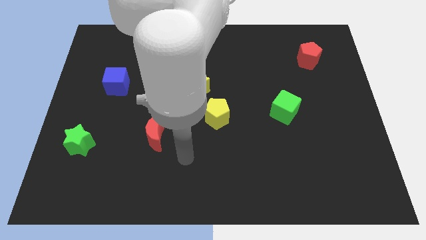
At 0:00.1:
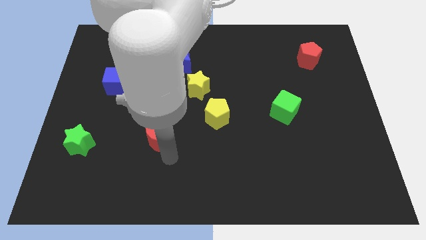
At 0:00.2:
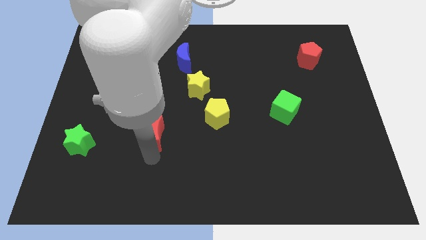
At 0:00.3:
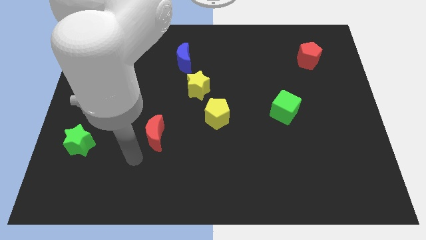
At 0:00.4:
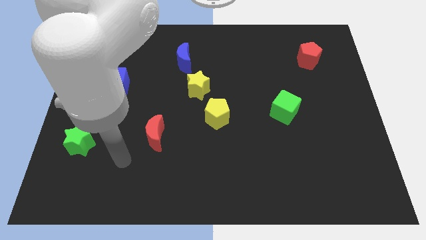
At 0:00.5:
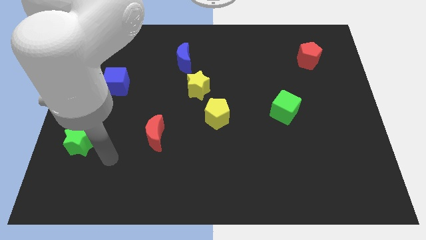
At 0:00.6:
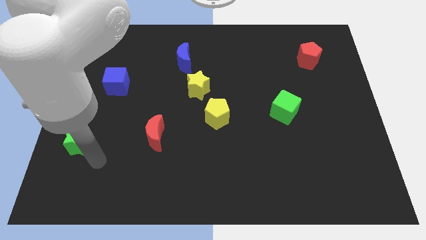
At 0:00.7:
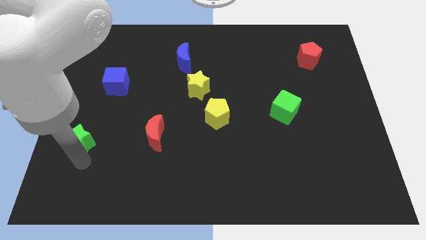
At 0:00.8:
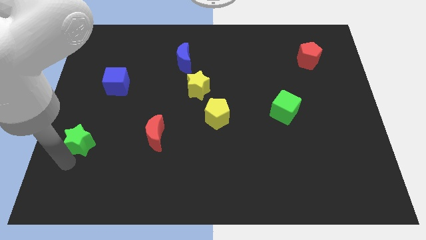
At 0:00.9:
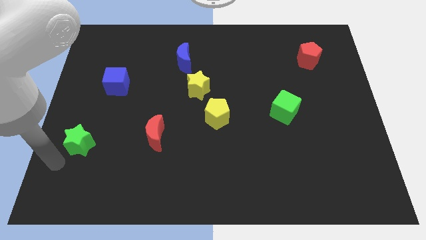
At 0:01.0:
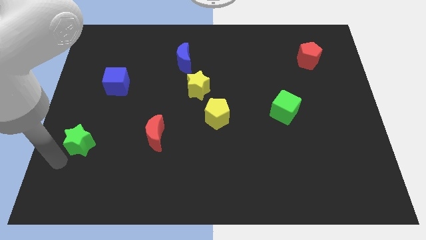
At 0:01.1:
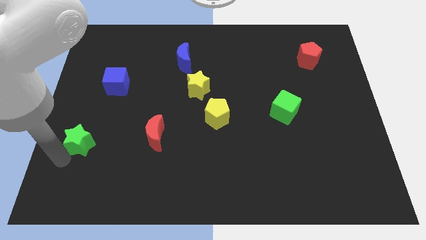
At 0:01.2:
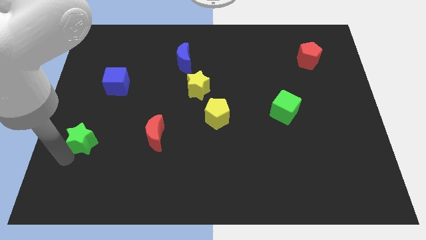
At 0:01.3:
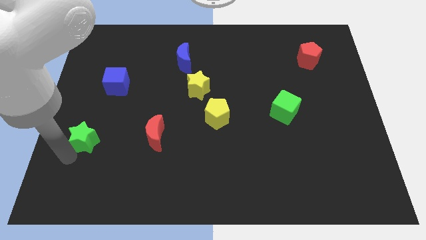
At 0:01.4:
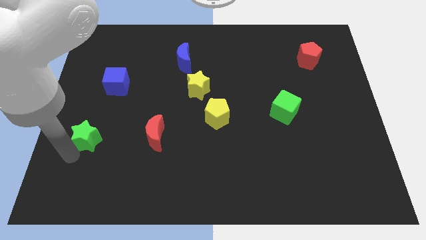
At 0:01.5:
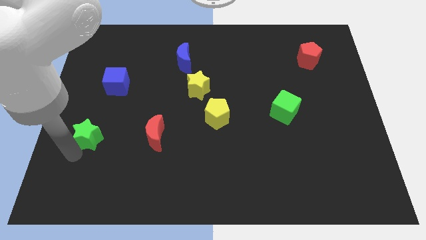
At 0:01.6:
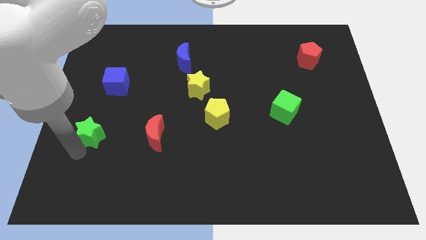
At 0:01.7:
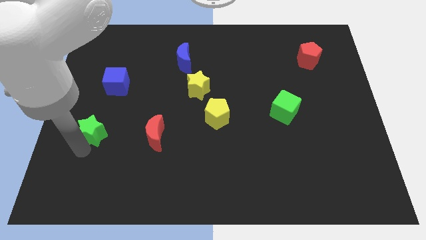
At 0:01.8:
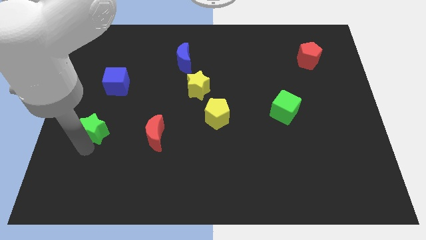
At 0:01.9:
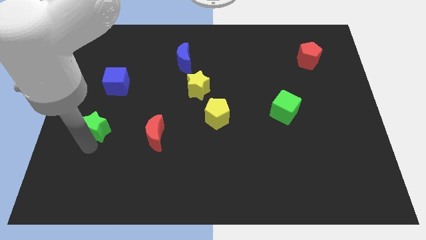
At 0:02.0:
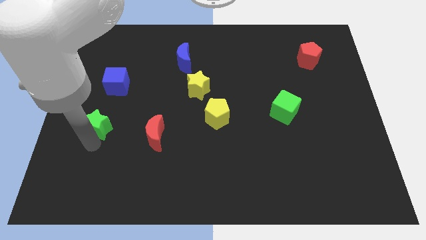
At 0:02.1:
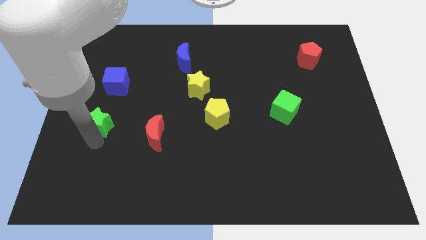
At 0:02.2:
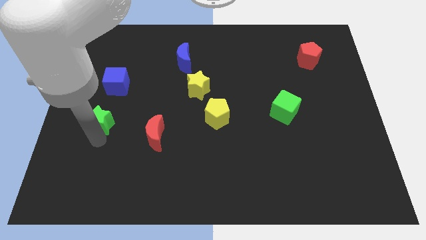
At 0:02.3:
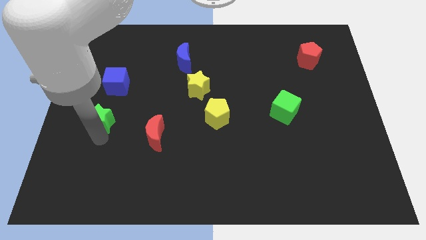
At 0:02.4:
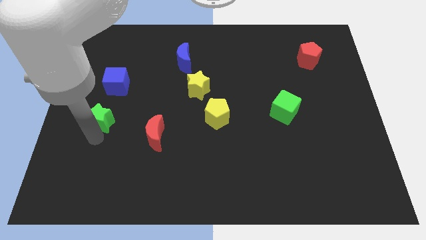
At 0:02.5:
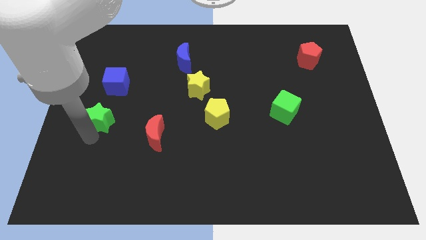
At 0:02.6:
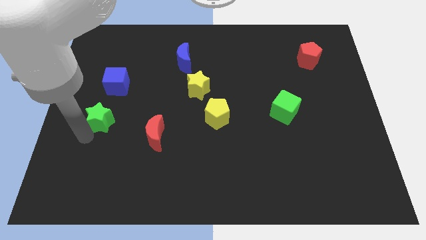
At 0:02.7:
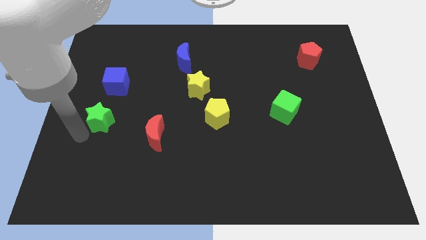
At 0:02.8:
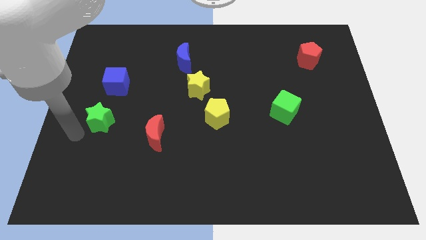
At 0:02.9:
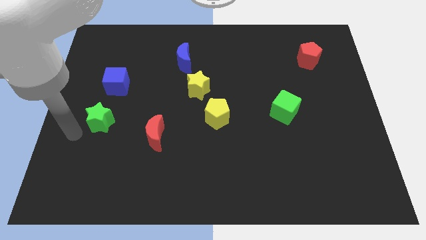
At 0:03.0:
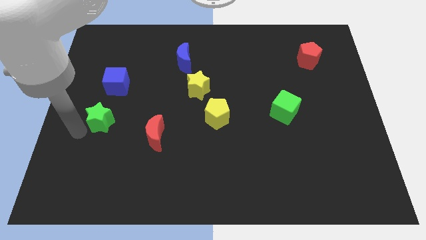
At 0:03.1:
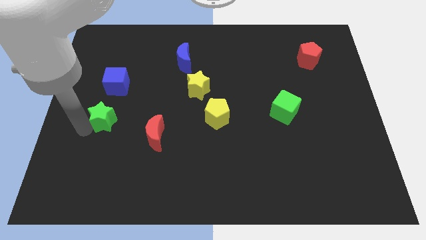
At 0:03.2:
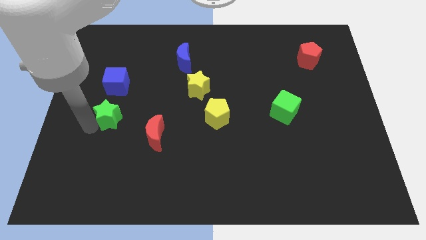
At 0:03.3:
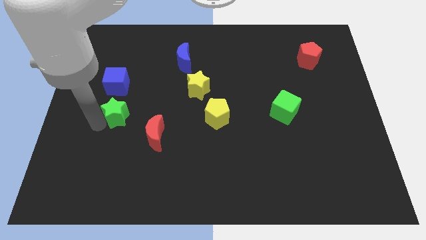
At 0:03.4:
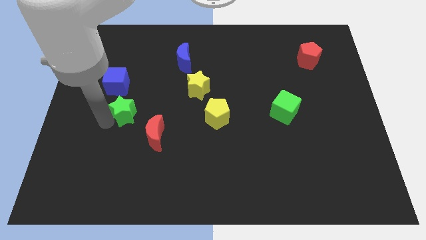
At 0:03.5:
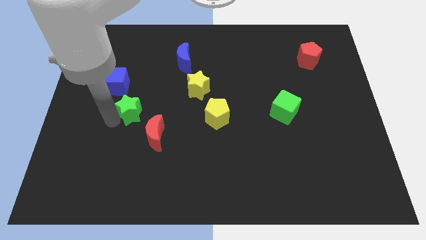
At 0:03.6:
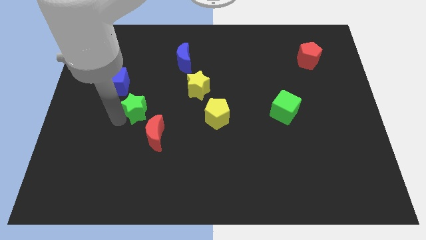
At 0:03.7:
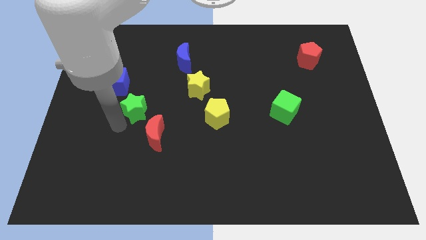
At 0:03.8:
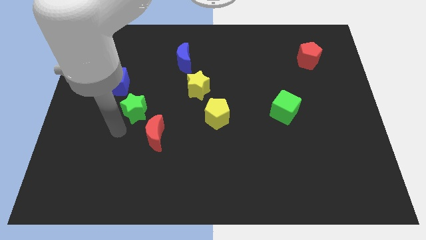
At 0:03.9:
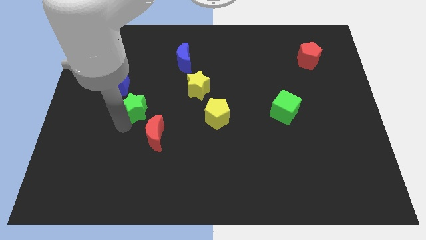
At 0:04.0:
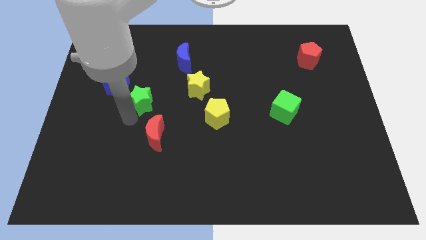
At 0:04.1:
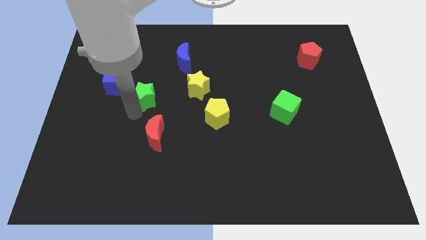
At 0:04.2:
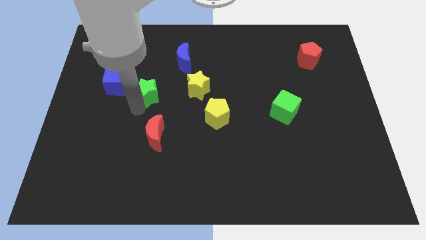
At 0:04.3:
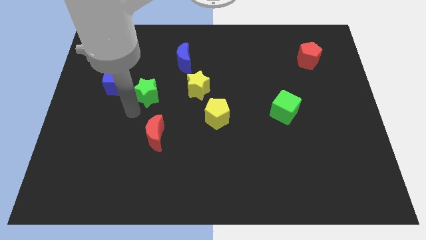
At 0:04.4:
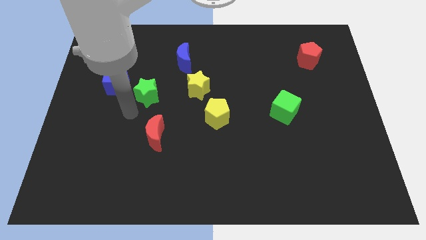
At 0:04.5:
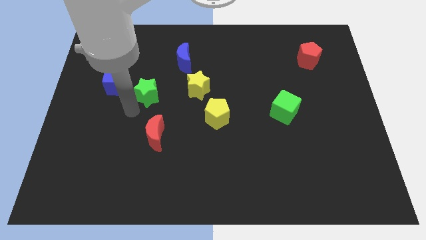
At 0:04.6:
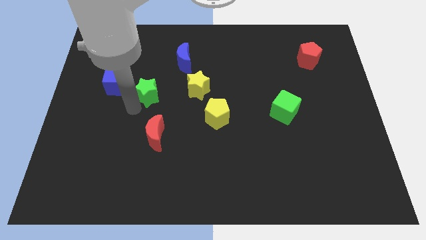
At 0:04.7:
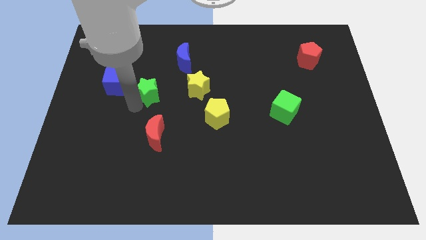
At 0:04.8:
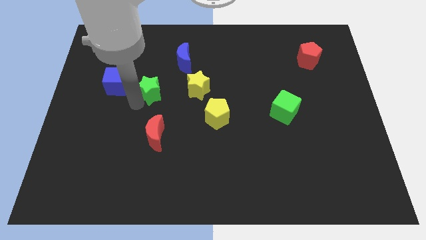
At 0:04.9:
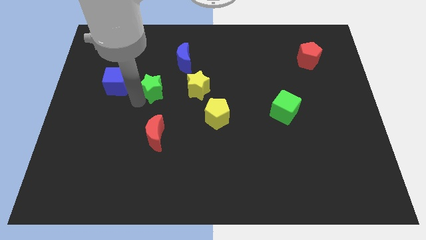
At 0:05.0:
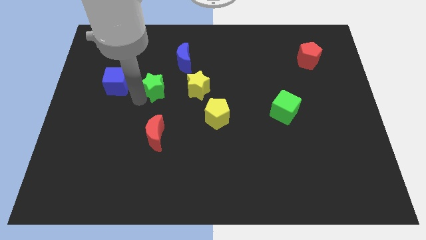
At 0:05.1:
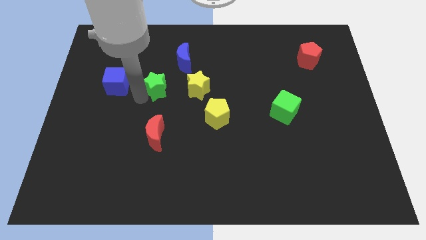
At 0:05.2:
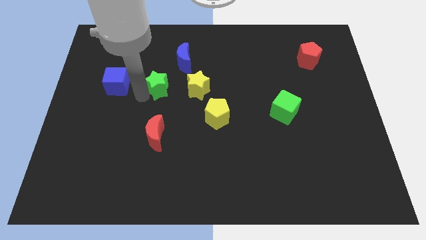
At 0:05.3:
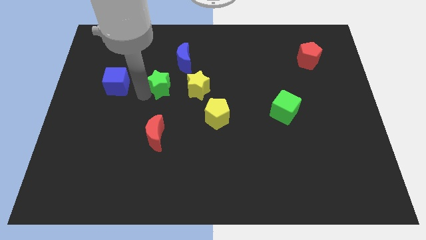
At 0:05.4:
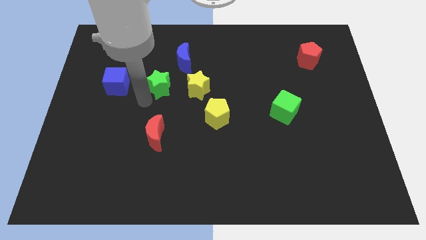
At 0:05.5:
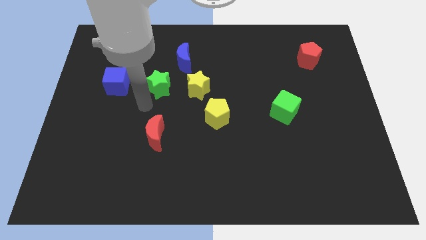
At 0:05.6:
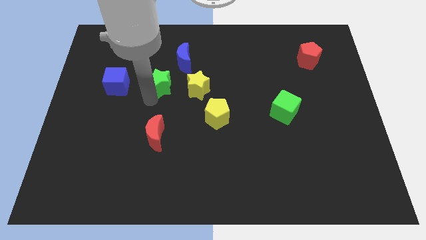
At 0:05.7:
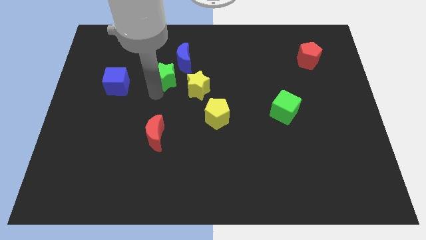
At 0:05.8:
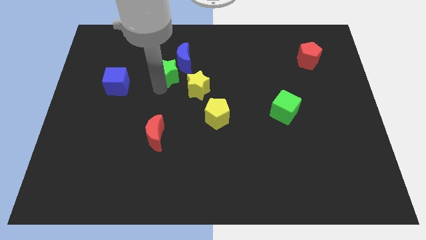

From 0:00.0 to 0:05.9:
slide the green star close to the blue moon

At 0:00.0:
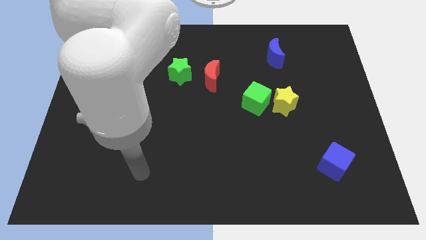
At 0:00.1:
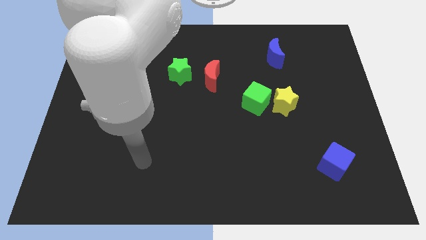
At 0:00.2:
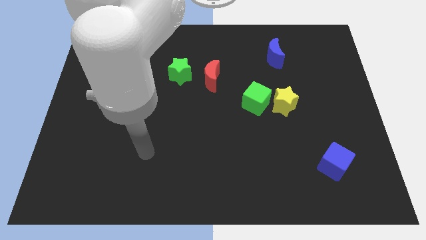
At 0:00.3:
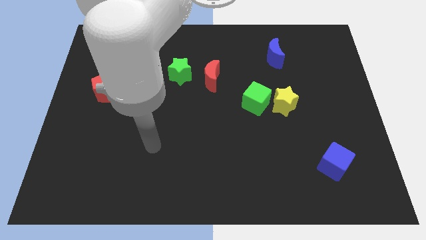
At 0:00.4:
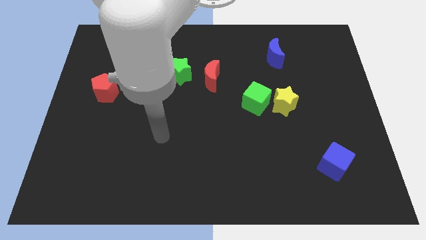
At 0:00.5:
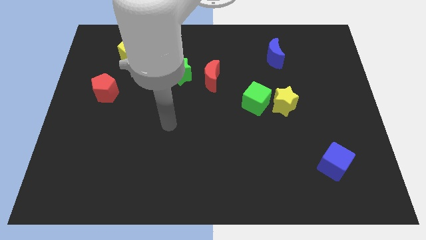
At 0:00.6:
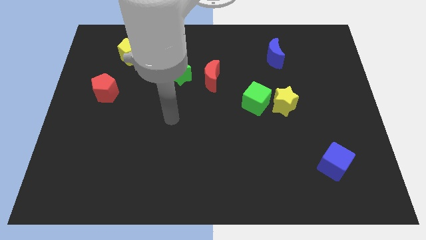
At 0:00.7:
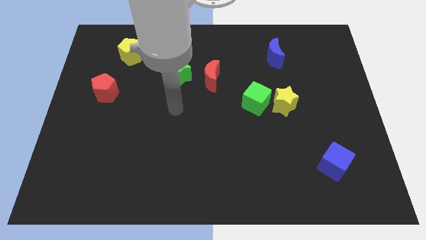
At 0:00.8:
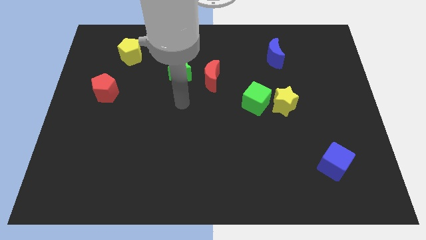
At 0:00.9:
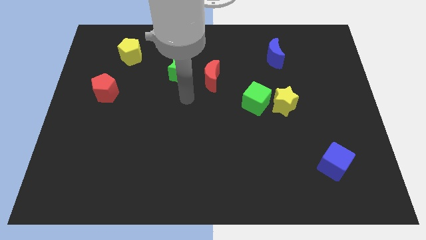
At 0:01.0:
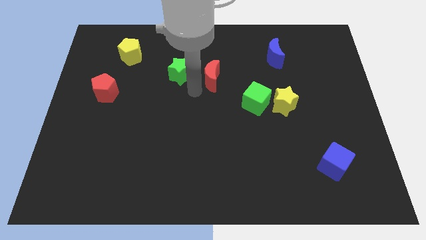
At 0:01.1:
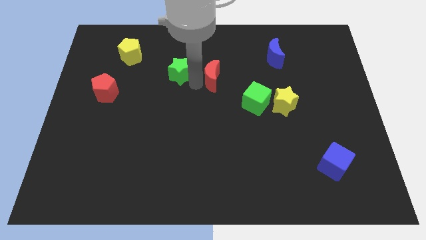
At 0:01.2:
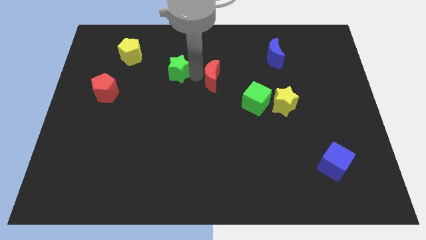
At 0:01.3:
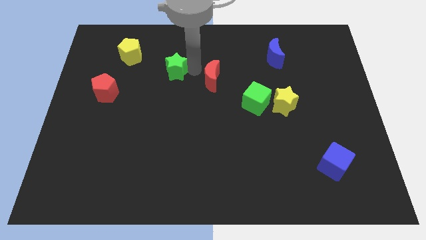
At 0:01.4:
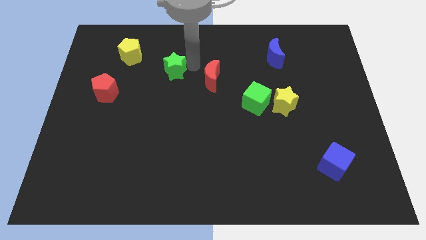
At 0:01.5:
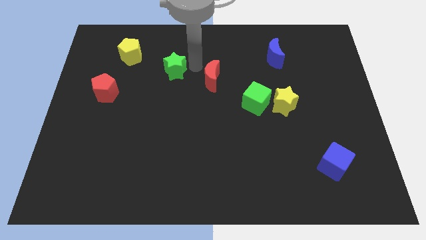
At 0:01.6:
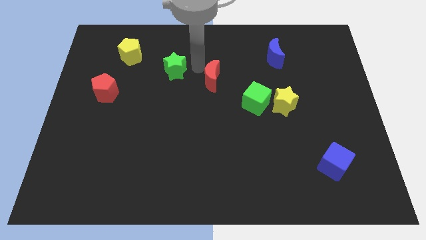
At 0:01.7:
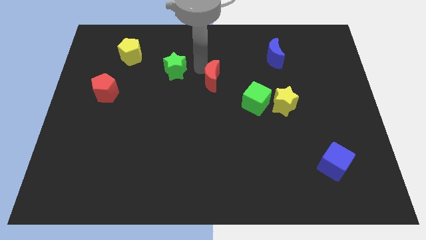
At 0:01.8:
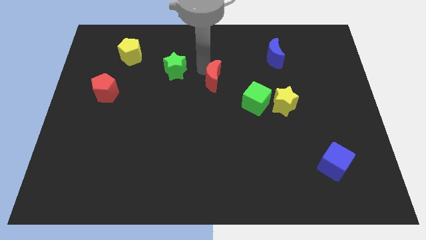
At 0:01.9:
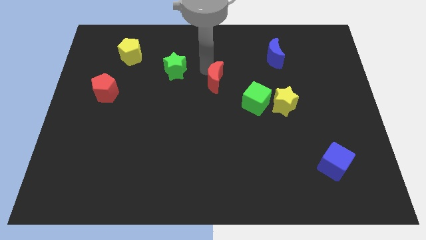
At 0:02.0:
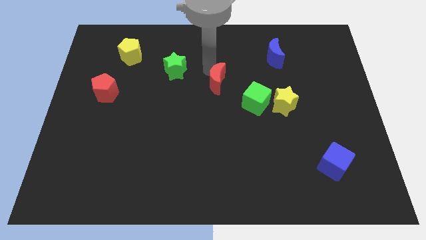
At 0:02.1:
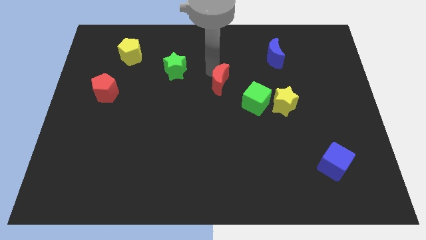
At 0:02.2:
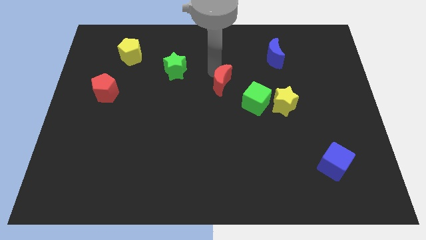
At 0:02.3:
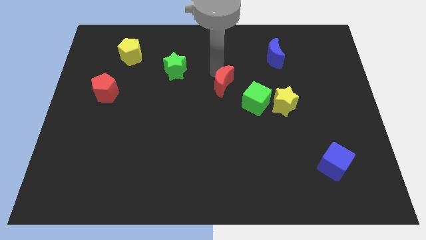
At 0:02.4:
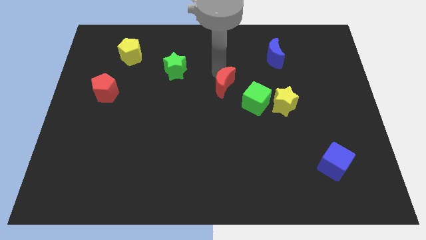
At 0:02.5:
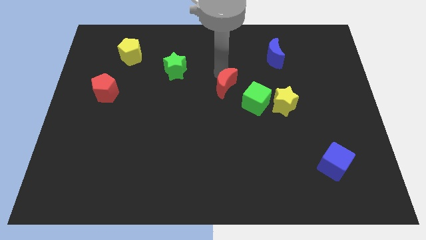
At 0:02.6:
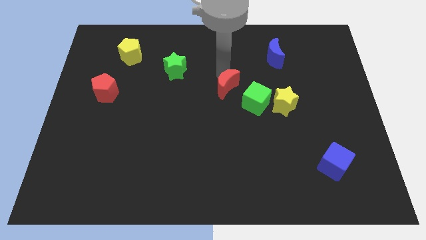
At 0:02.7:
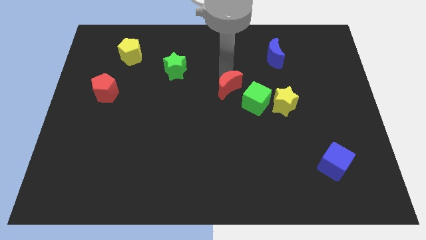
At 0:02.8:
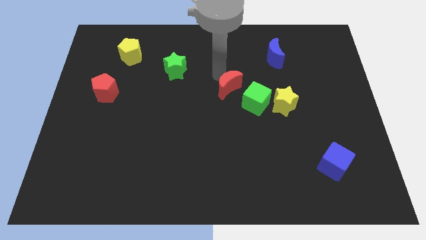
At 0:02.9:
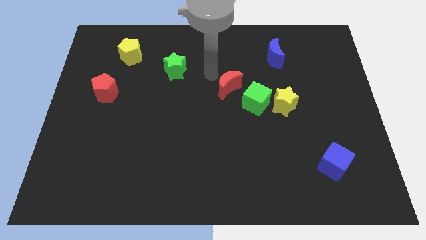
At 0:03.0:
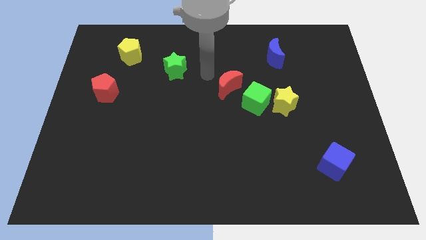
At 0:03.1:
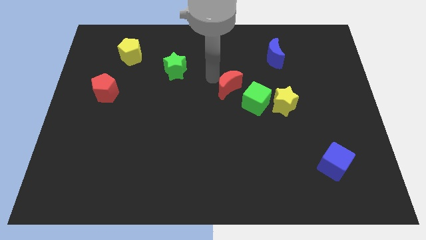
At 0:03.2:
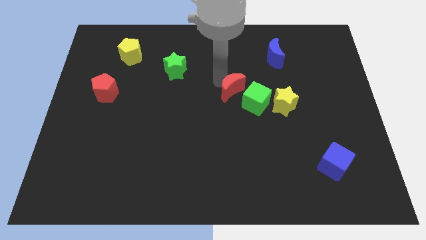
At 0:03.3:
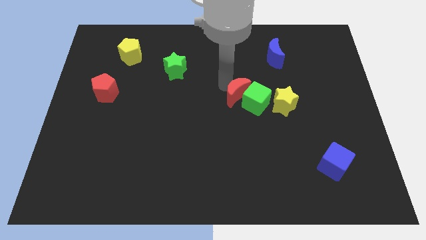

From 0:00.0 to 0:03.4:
push the red moon close to the green cube
